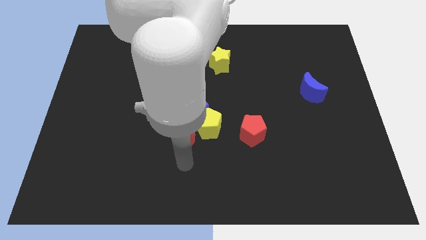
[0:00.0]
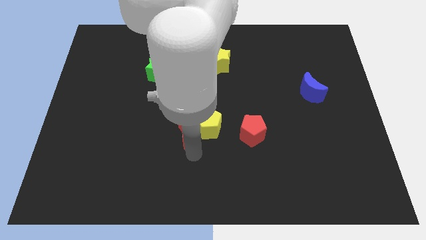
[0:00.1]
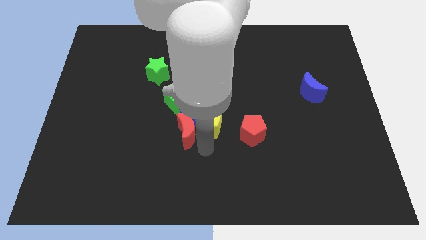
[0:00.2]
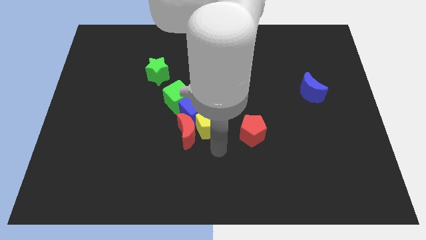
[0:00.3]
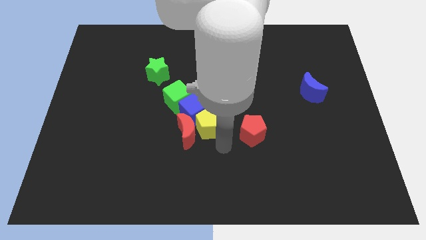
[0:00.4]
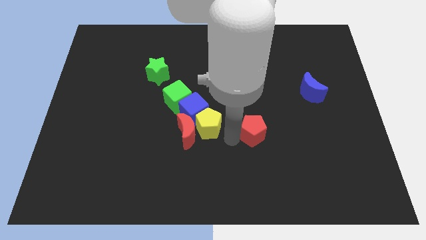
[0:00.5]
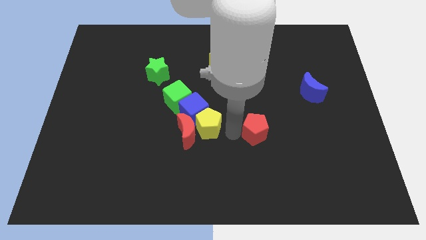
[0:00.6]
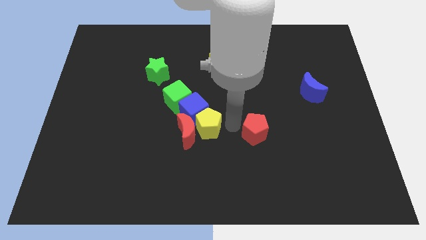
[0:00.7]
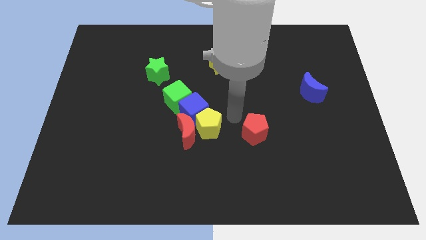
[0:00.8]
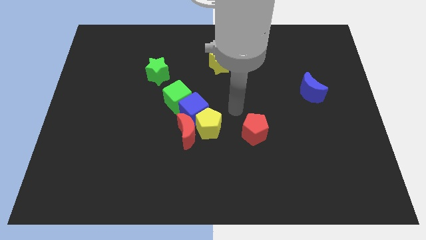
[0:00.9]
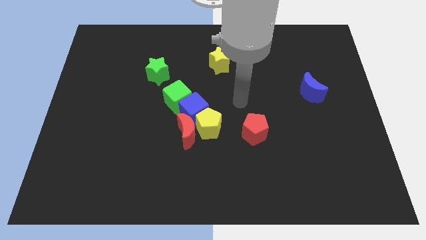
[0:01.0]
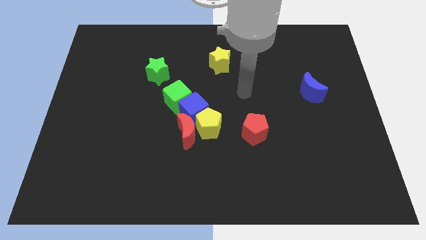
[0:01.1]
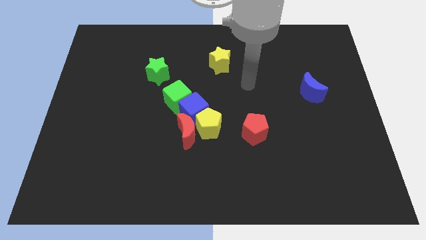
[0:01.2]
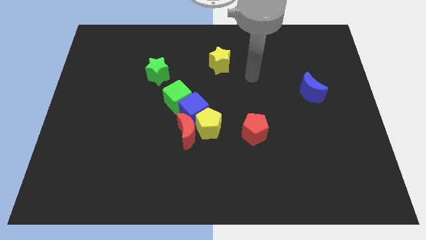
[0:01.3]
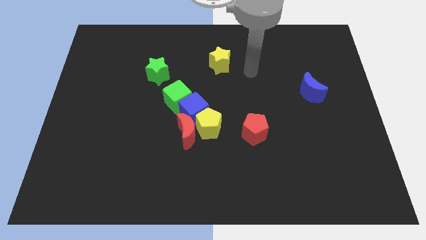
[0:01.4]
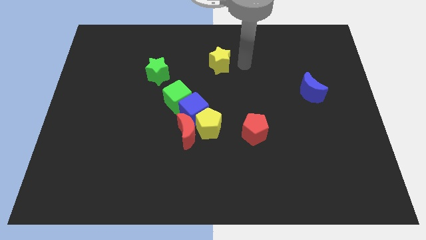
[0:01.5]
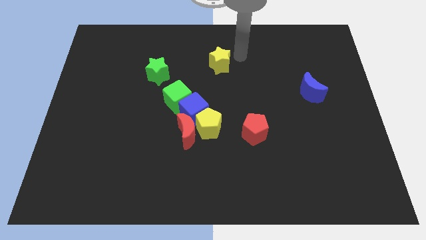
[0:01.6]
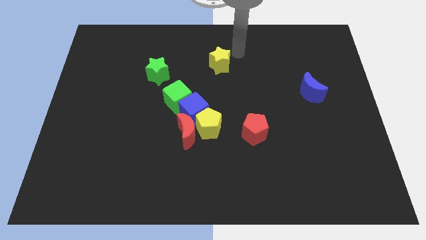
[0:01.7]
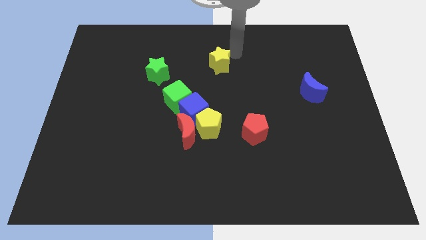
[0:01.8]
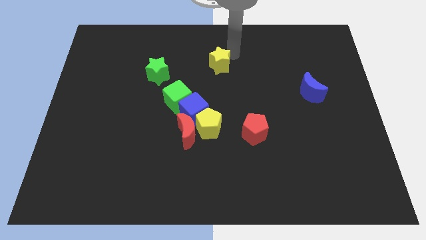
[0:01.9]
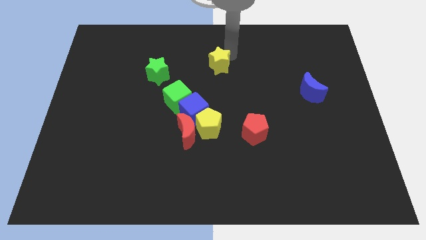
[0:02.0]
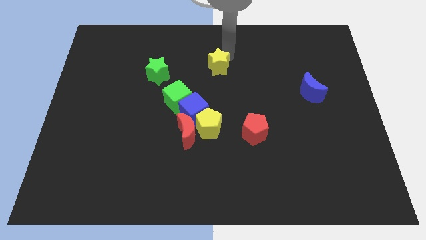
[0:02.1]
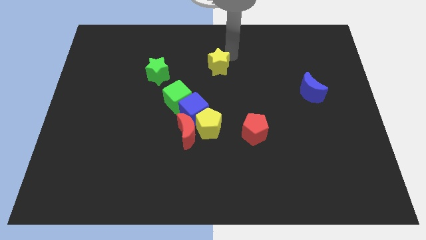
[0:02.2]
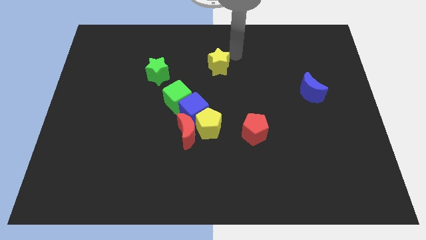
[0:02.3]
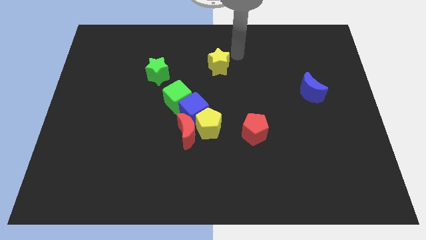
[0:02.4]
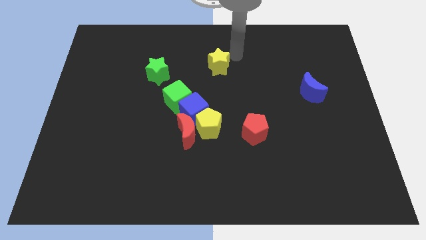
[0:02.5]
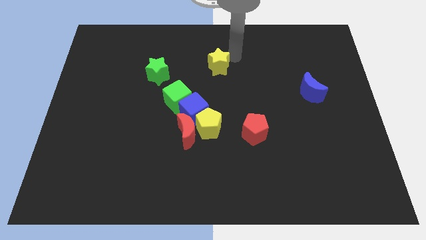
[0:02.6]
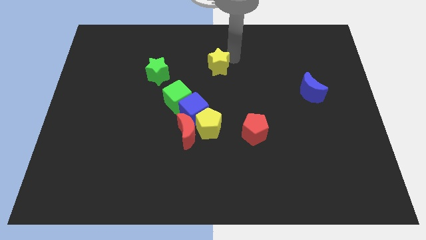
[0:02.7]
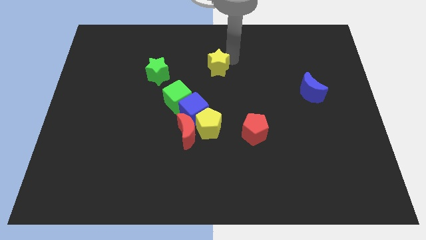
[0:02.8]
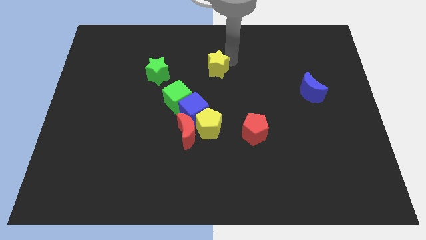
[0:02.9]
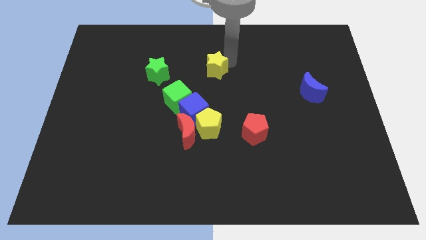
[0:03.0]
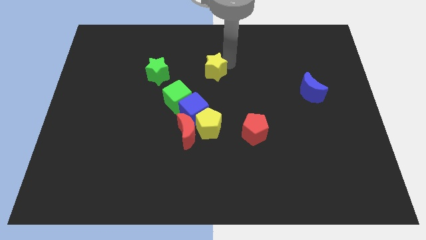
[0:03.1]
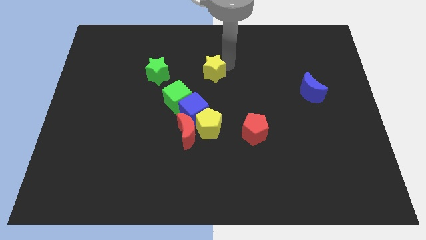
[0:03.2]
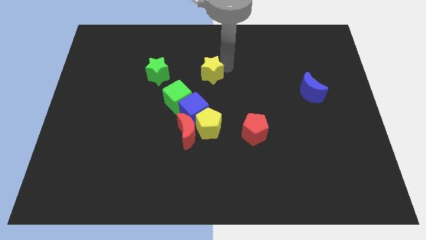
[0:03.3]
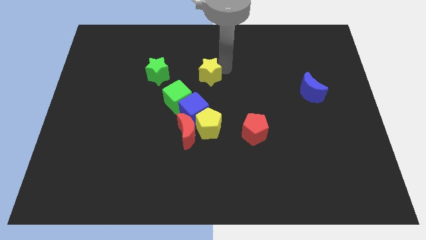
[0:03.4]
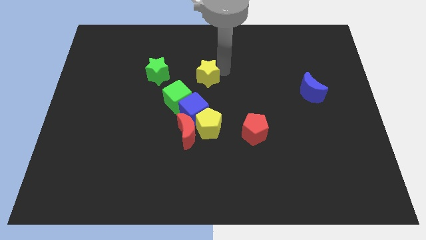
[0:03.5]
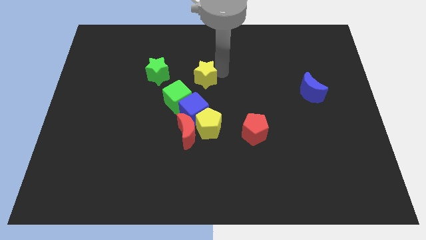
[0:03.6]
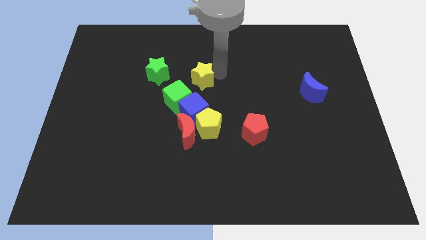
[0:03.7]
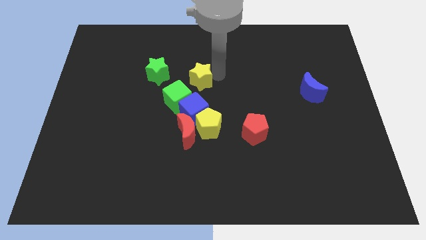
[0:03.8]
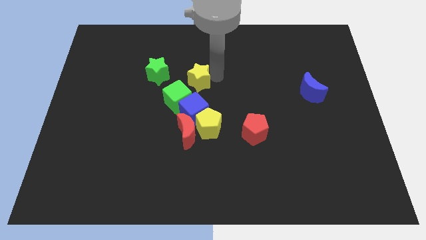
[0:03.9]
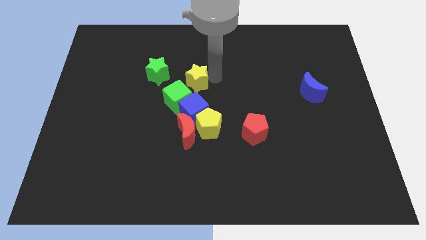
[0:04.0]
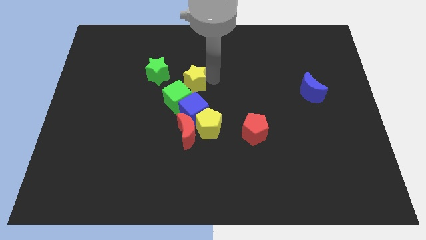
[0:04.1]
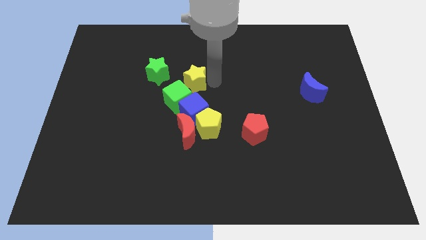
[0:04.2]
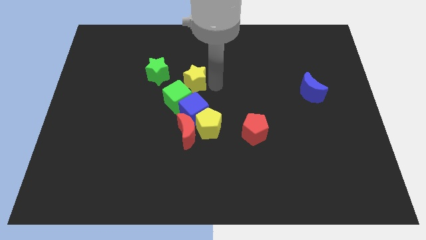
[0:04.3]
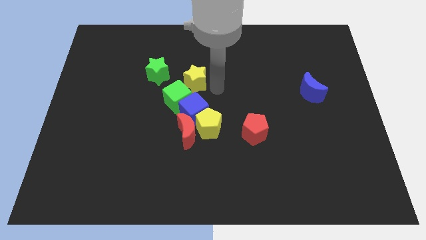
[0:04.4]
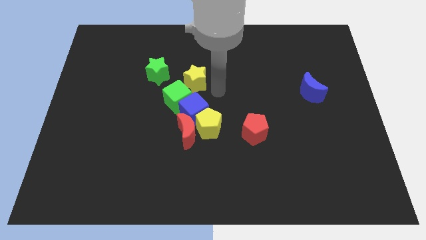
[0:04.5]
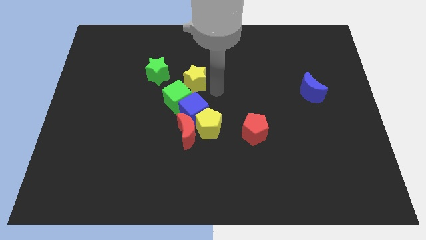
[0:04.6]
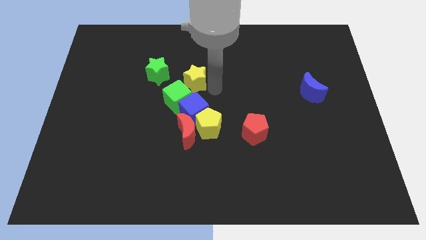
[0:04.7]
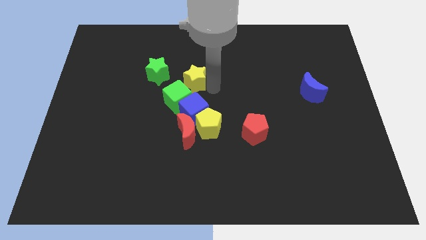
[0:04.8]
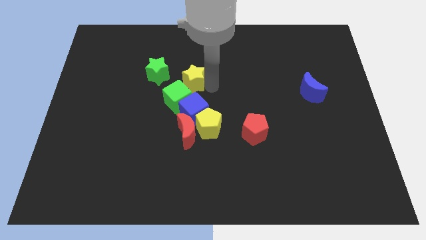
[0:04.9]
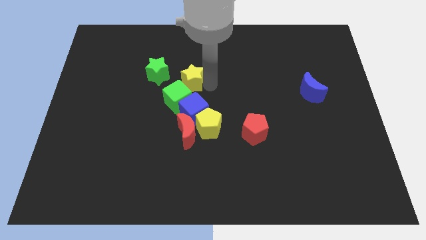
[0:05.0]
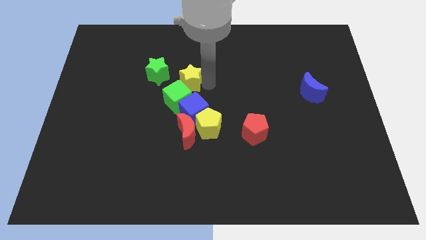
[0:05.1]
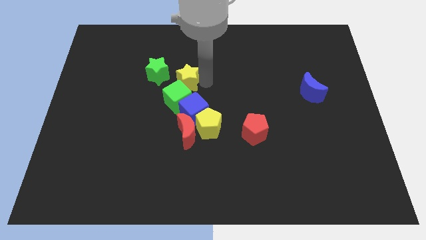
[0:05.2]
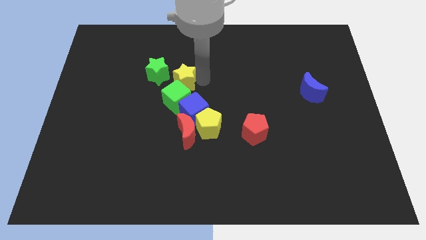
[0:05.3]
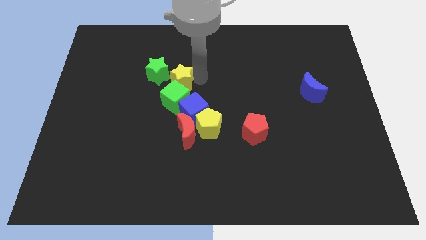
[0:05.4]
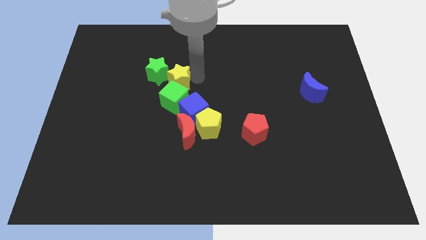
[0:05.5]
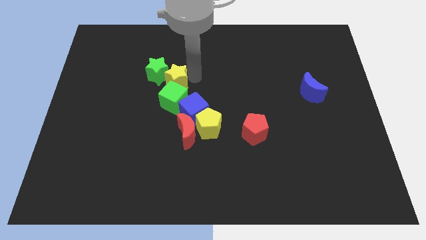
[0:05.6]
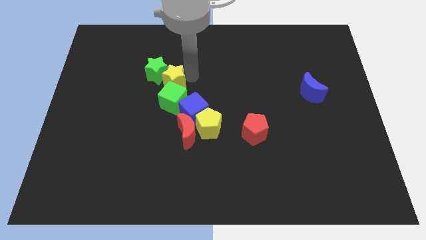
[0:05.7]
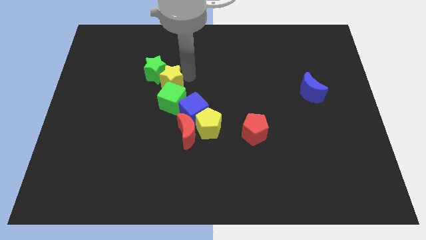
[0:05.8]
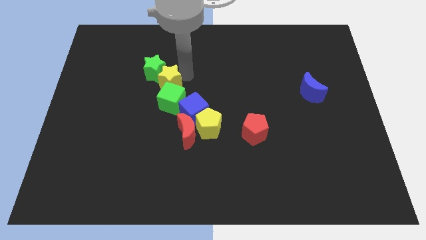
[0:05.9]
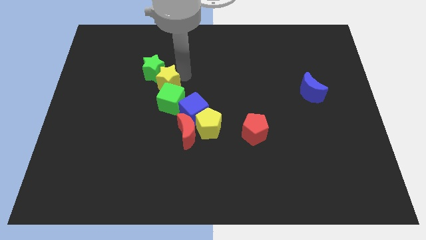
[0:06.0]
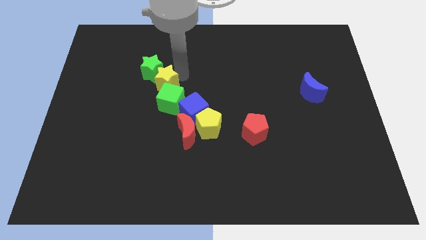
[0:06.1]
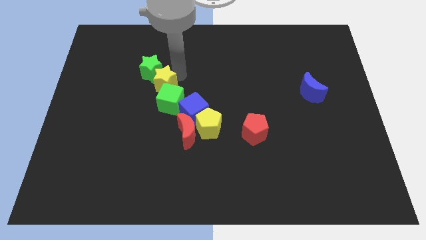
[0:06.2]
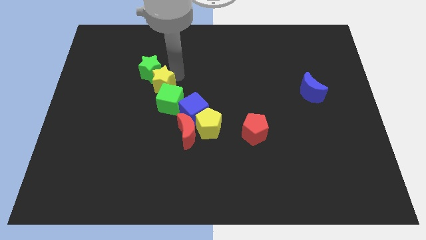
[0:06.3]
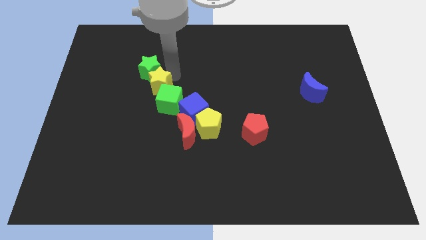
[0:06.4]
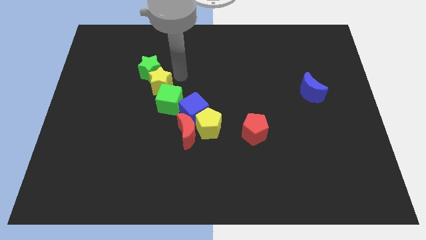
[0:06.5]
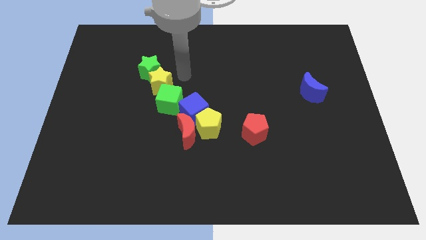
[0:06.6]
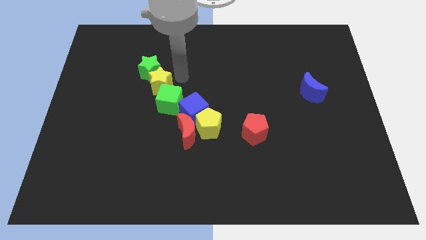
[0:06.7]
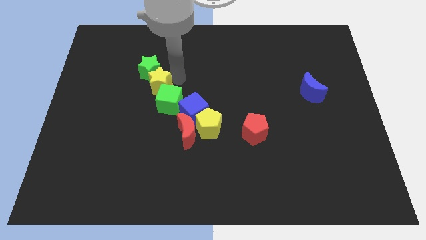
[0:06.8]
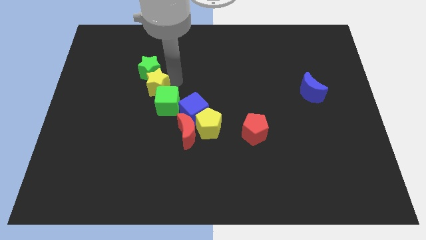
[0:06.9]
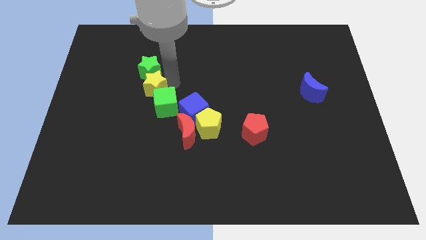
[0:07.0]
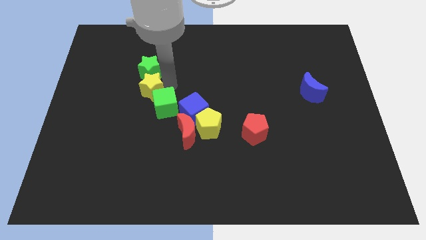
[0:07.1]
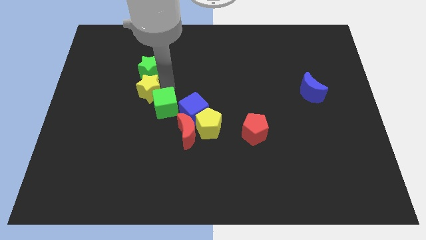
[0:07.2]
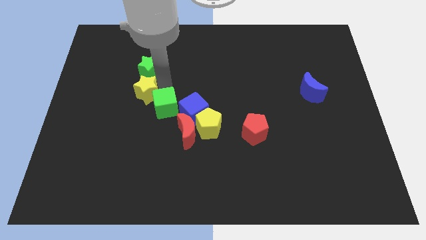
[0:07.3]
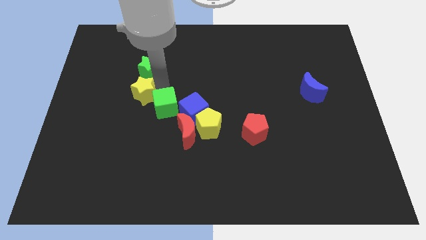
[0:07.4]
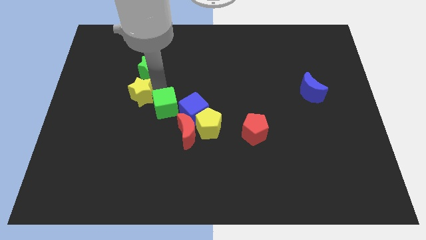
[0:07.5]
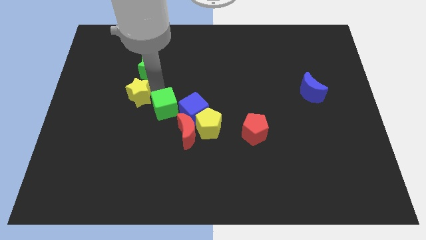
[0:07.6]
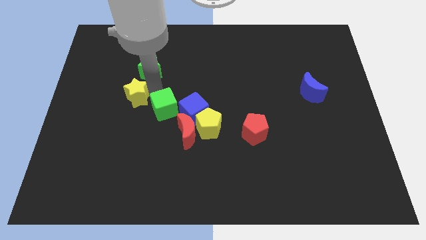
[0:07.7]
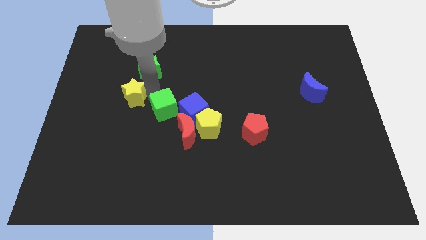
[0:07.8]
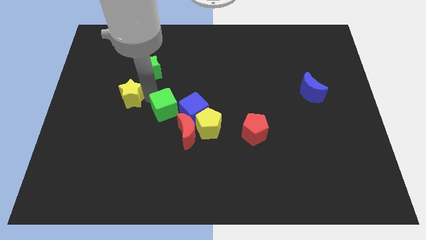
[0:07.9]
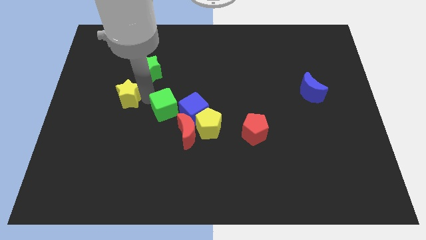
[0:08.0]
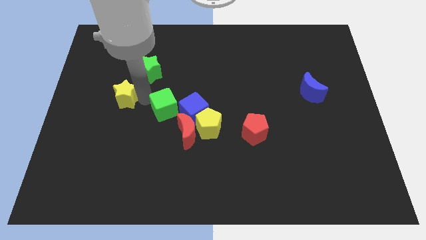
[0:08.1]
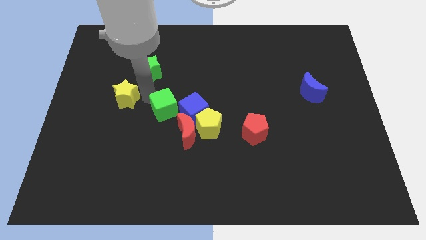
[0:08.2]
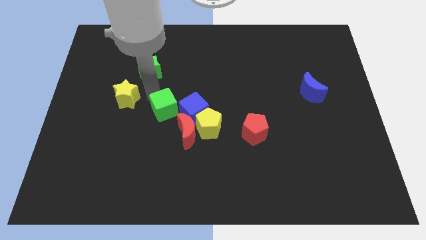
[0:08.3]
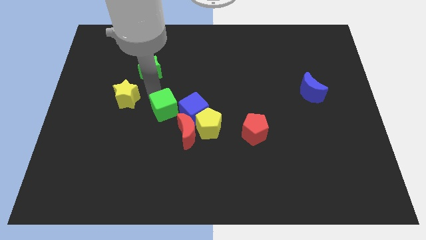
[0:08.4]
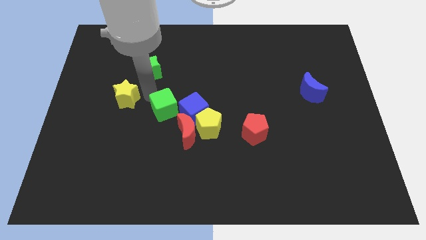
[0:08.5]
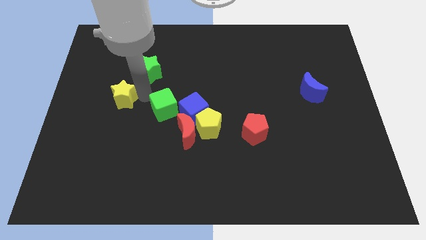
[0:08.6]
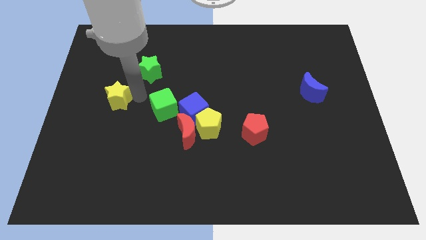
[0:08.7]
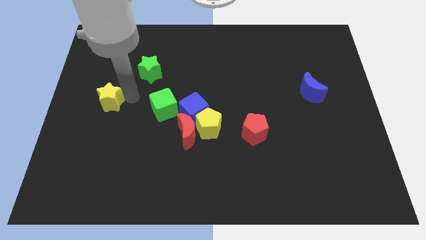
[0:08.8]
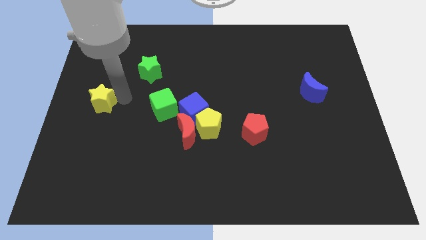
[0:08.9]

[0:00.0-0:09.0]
push the yellow star to the left side
